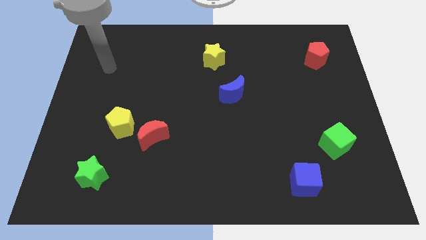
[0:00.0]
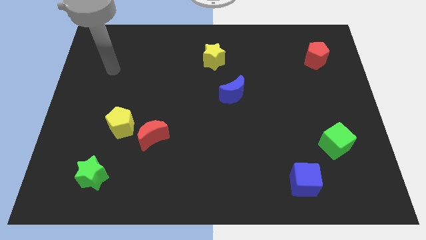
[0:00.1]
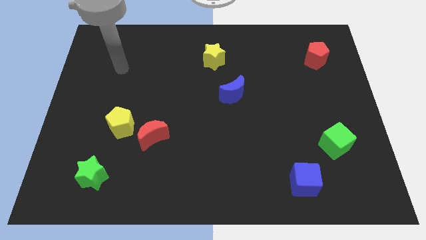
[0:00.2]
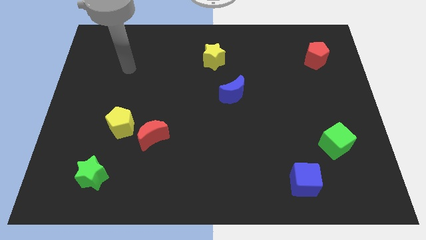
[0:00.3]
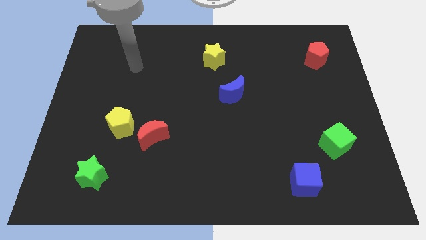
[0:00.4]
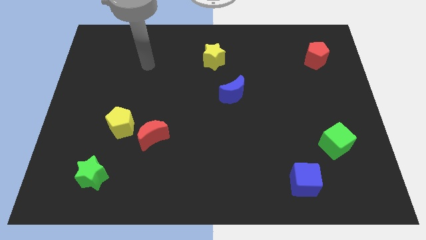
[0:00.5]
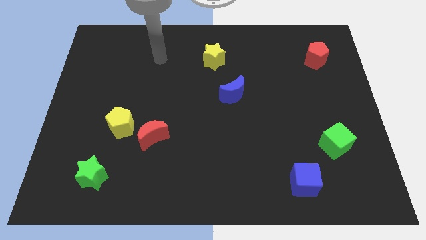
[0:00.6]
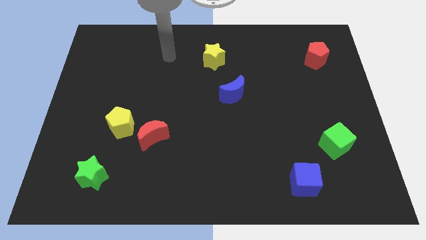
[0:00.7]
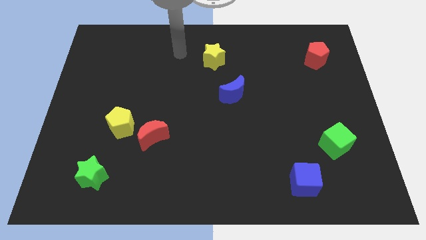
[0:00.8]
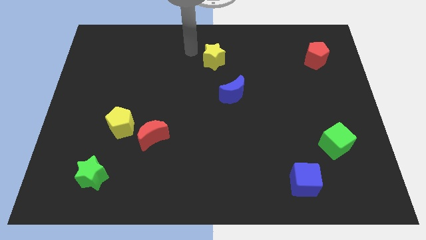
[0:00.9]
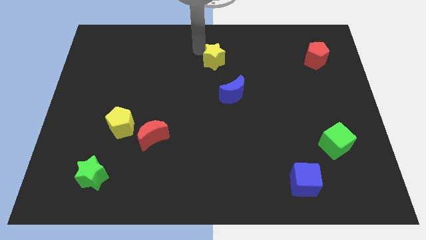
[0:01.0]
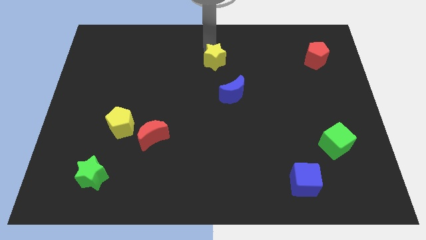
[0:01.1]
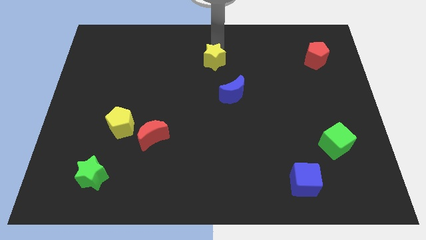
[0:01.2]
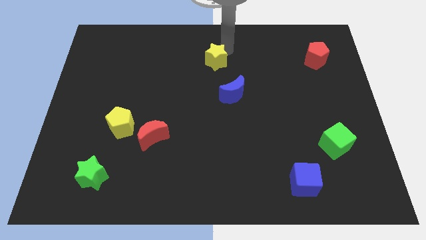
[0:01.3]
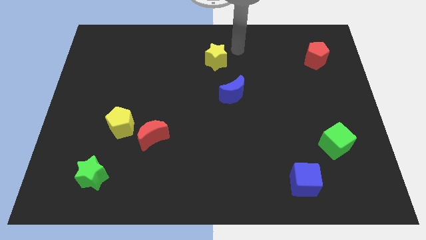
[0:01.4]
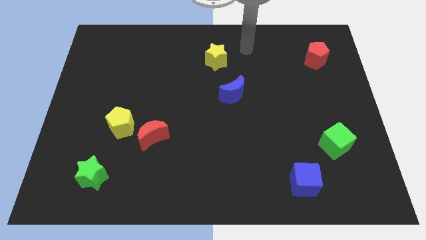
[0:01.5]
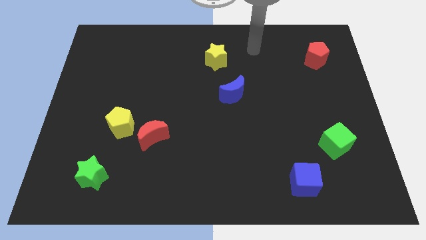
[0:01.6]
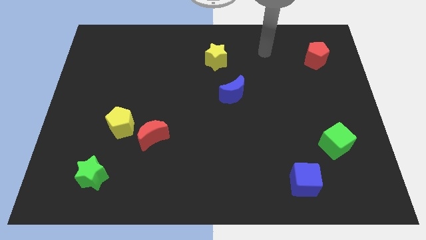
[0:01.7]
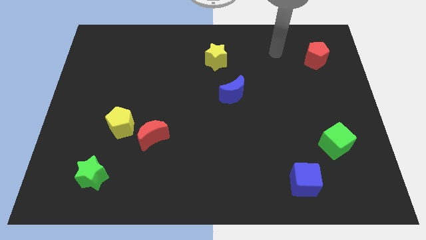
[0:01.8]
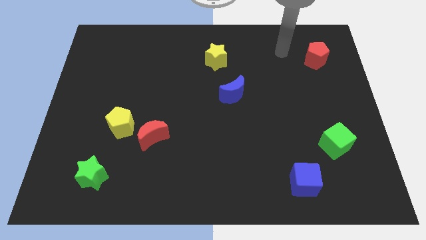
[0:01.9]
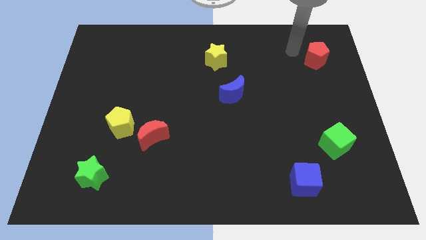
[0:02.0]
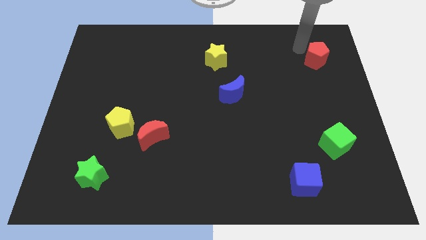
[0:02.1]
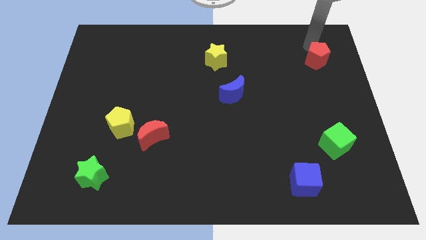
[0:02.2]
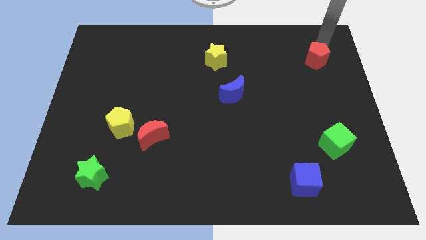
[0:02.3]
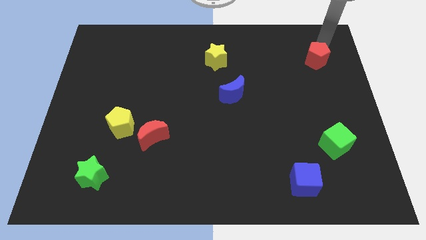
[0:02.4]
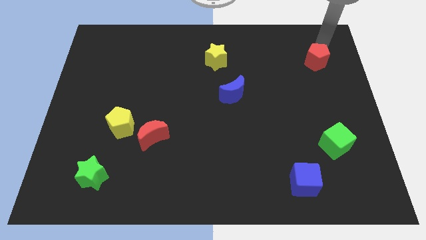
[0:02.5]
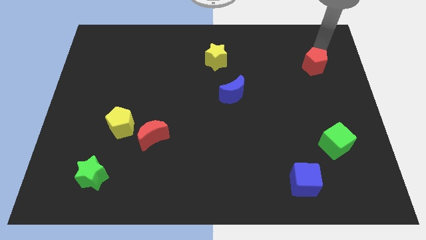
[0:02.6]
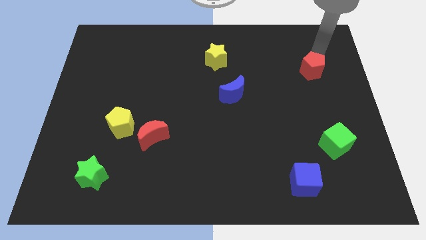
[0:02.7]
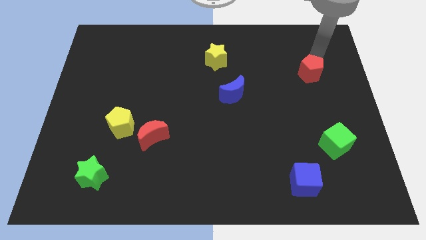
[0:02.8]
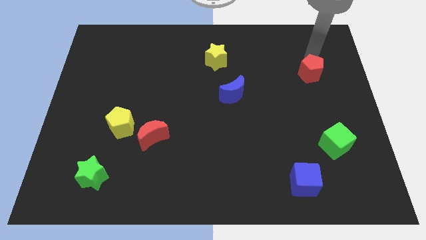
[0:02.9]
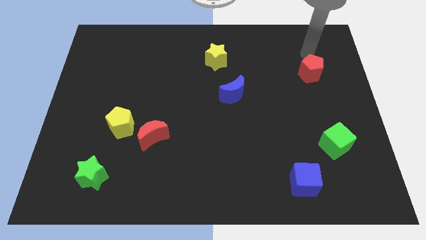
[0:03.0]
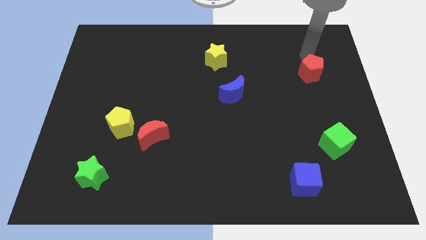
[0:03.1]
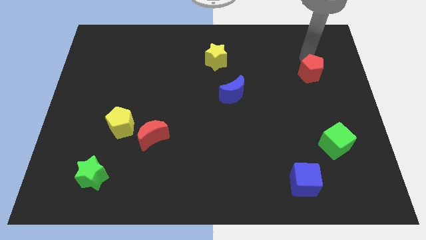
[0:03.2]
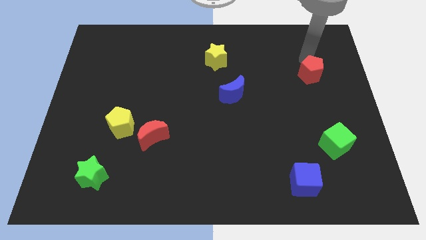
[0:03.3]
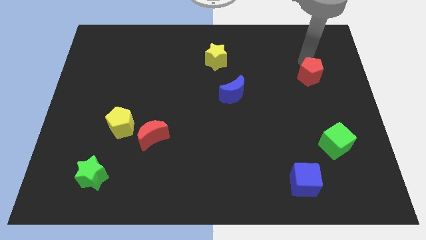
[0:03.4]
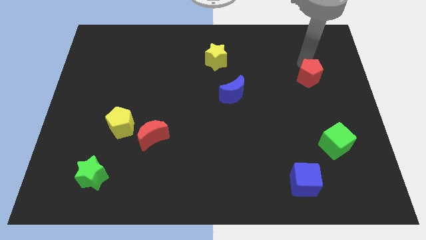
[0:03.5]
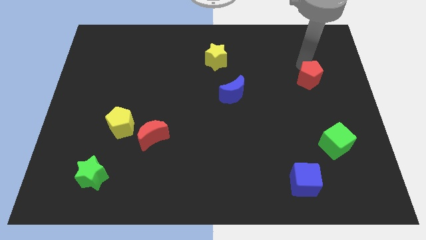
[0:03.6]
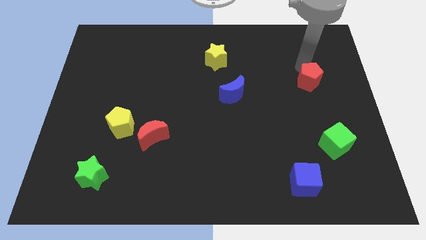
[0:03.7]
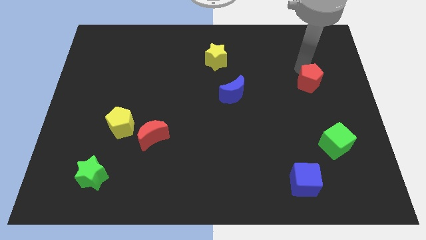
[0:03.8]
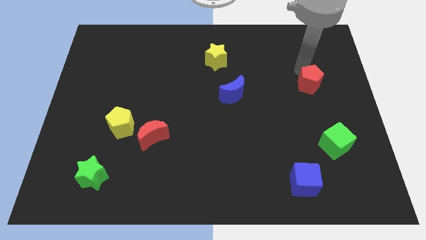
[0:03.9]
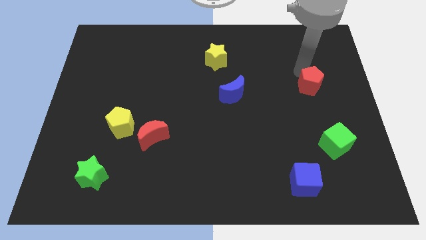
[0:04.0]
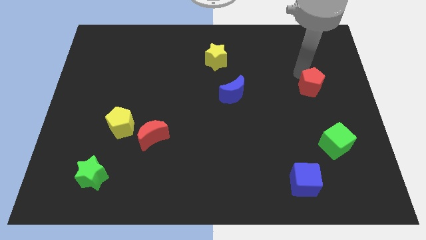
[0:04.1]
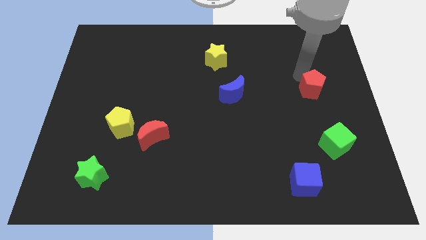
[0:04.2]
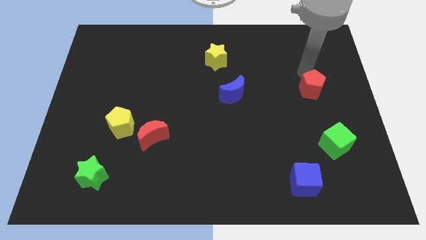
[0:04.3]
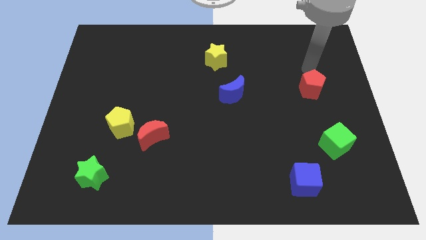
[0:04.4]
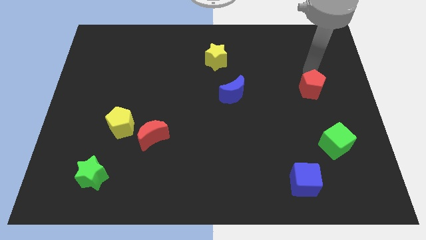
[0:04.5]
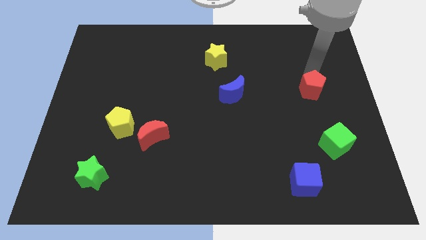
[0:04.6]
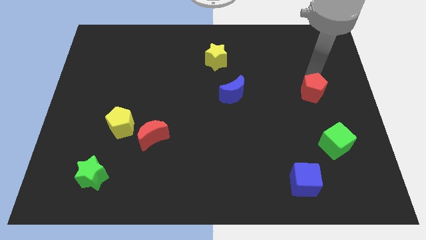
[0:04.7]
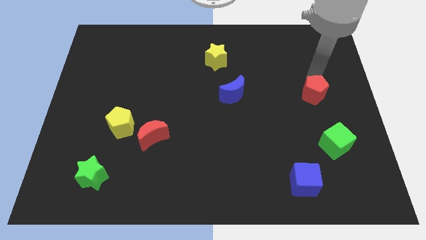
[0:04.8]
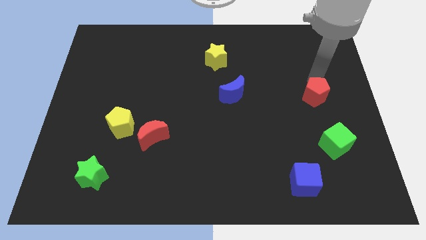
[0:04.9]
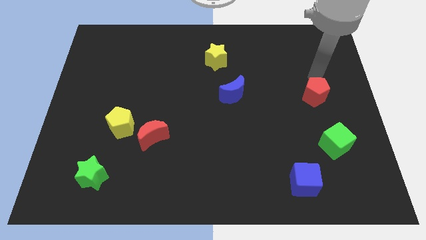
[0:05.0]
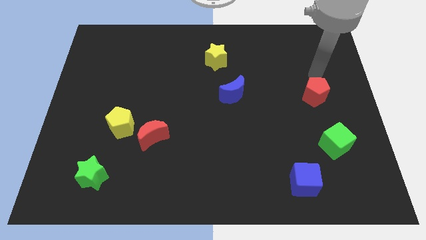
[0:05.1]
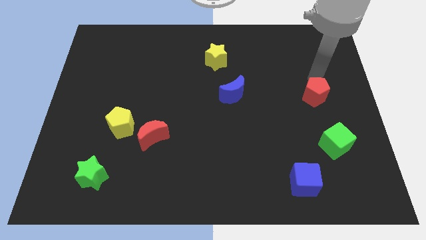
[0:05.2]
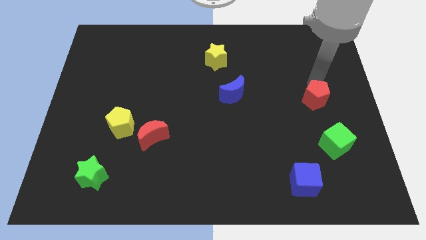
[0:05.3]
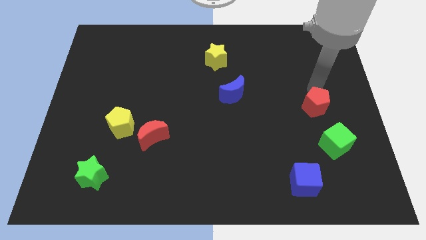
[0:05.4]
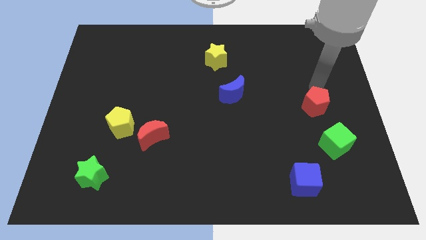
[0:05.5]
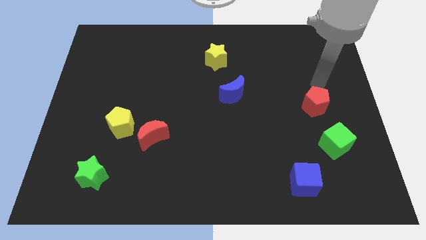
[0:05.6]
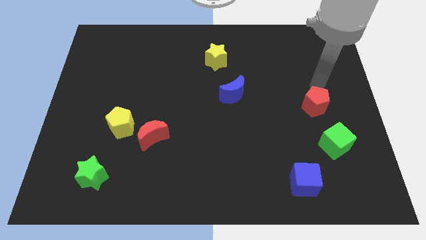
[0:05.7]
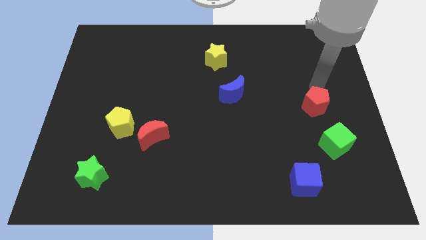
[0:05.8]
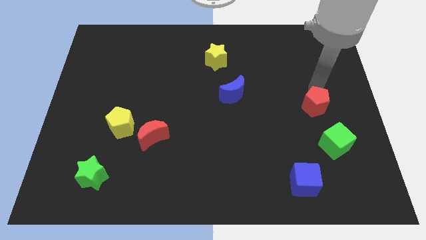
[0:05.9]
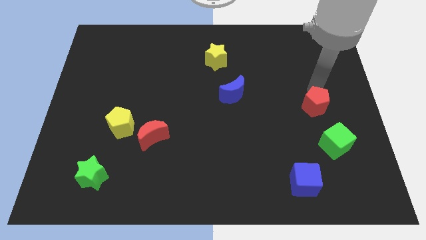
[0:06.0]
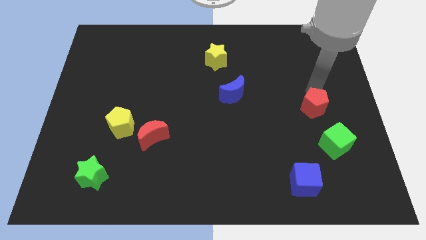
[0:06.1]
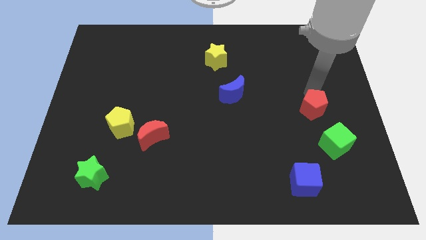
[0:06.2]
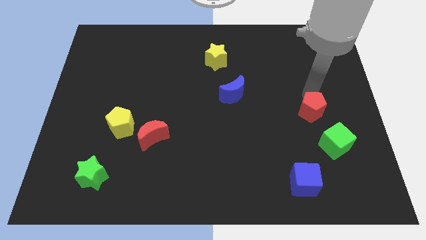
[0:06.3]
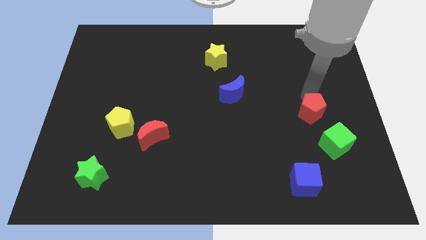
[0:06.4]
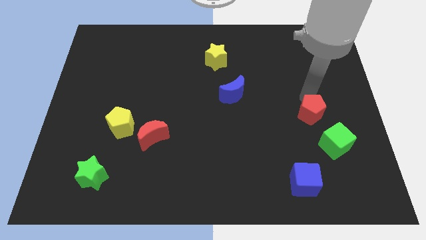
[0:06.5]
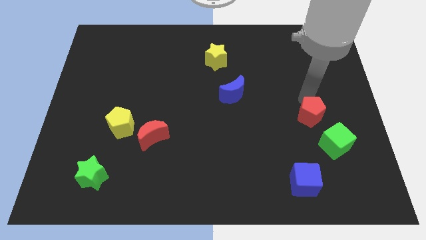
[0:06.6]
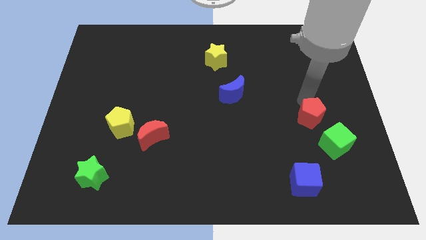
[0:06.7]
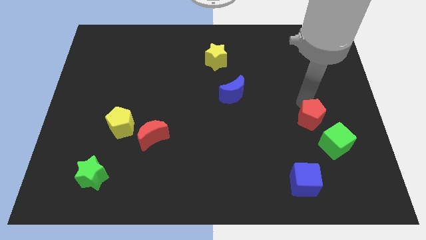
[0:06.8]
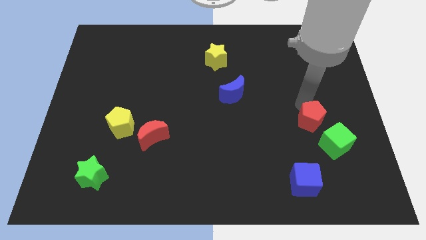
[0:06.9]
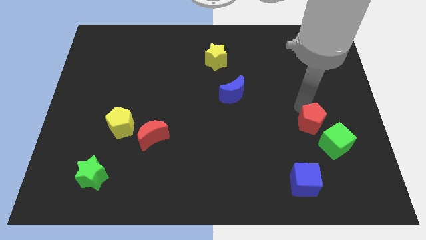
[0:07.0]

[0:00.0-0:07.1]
slide the red pentagon downwards

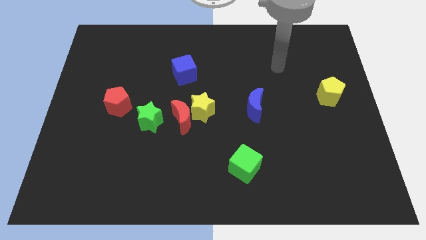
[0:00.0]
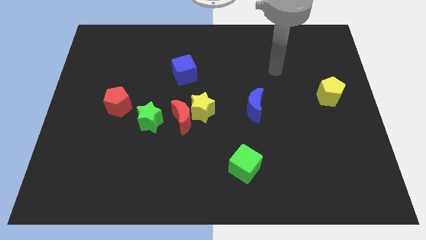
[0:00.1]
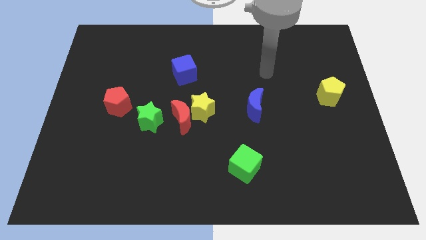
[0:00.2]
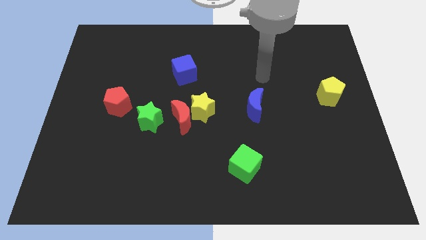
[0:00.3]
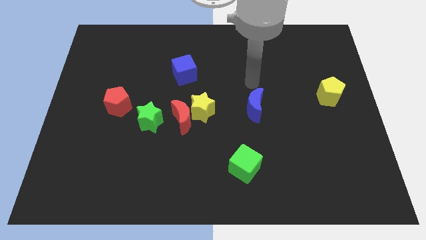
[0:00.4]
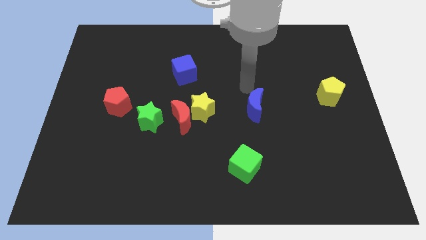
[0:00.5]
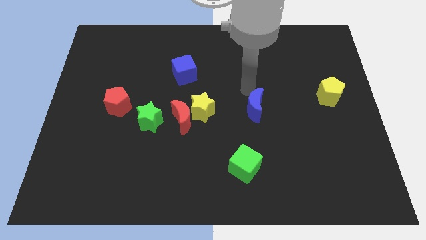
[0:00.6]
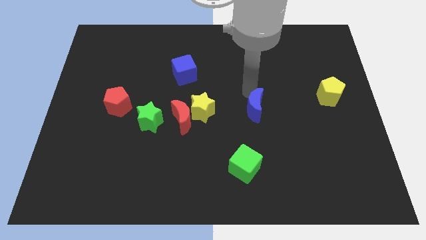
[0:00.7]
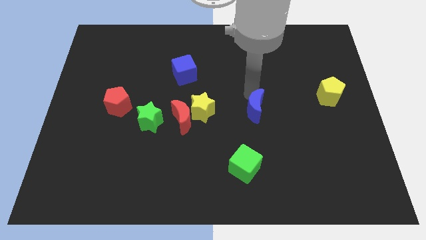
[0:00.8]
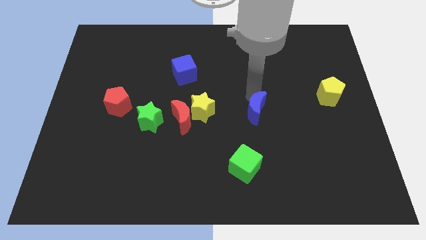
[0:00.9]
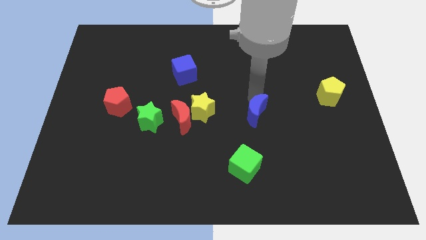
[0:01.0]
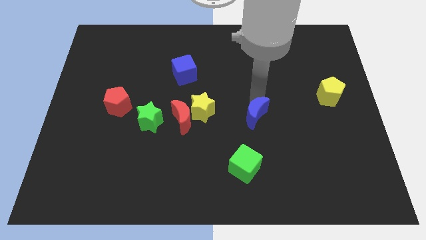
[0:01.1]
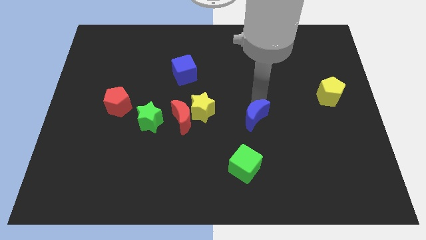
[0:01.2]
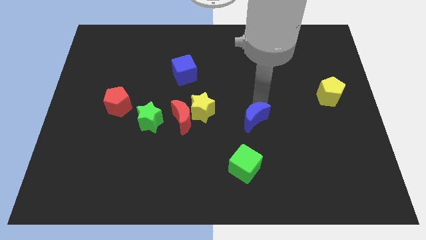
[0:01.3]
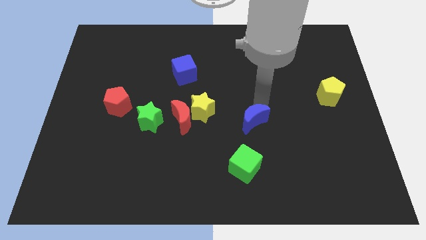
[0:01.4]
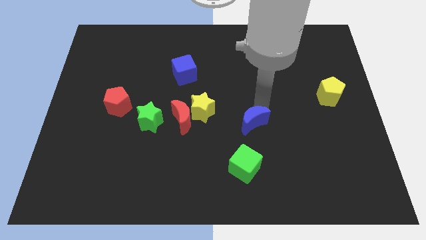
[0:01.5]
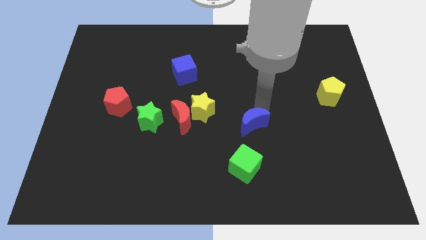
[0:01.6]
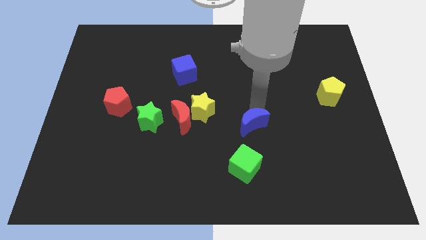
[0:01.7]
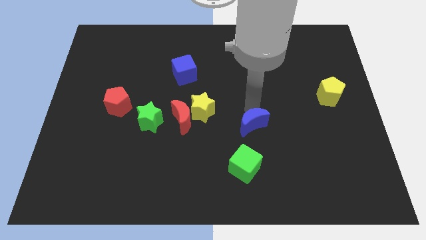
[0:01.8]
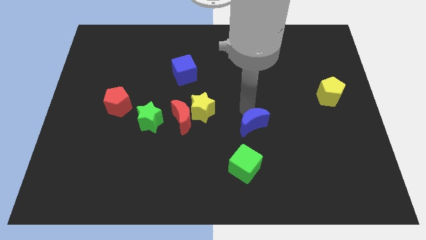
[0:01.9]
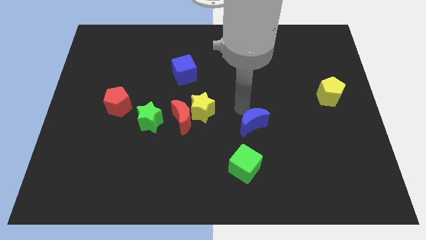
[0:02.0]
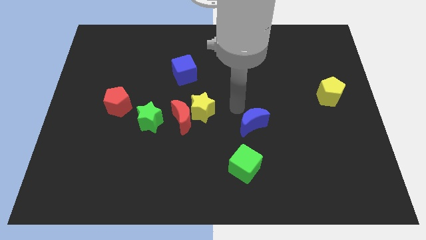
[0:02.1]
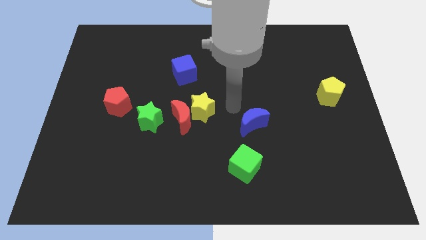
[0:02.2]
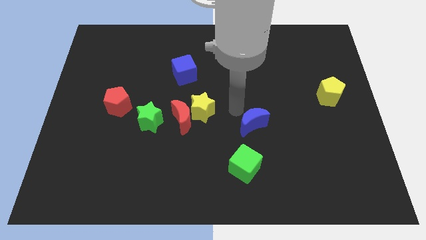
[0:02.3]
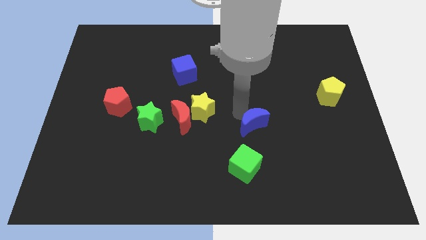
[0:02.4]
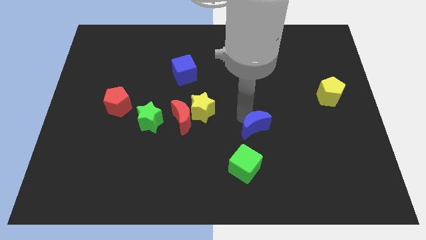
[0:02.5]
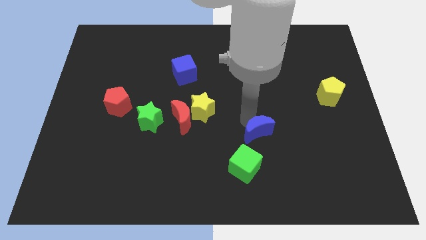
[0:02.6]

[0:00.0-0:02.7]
move the blue moon somewhat down
